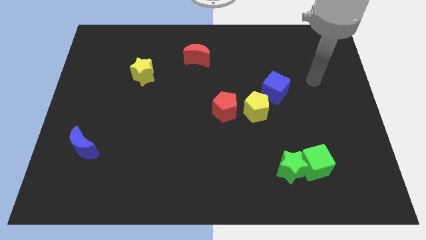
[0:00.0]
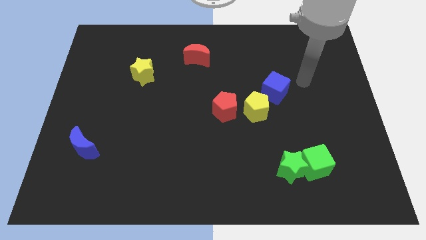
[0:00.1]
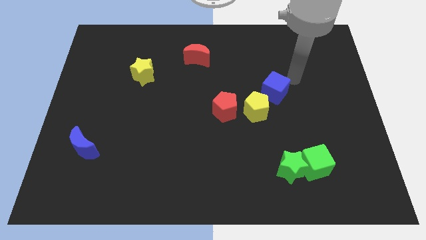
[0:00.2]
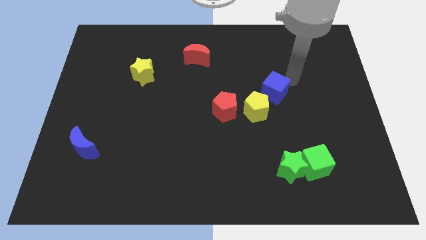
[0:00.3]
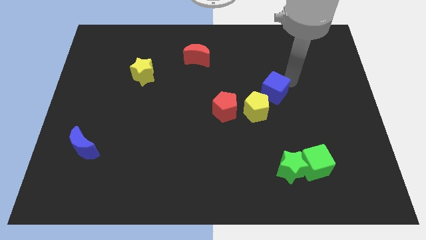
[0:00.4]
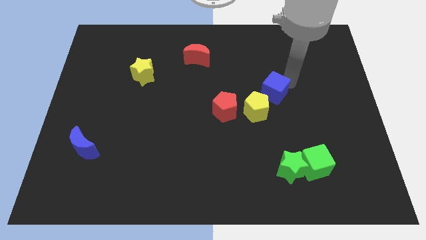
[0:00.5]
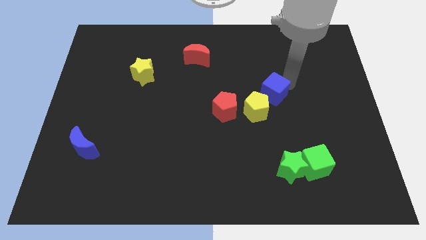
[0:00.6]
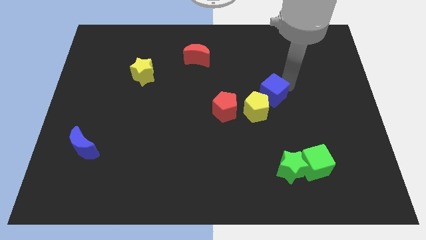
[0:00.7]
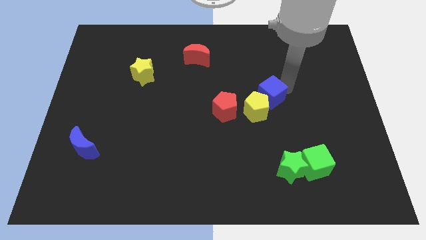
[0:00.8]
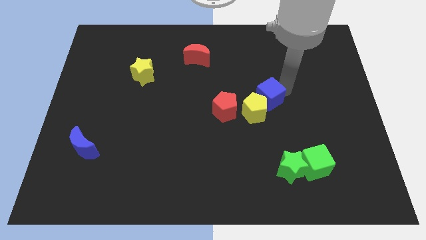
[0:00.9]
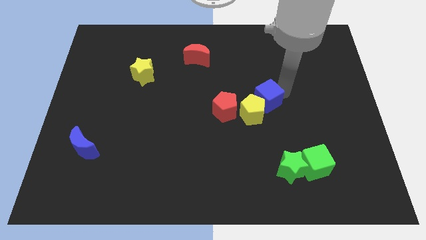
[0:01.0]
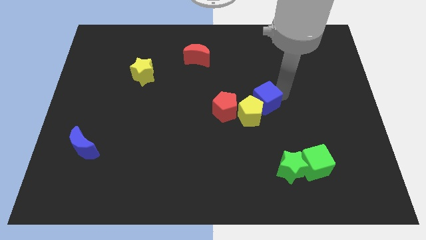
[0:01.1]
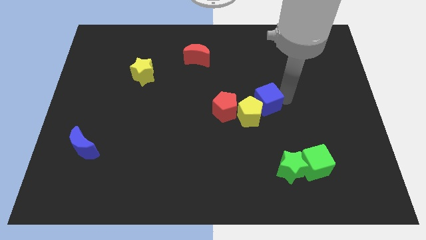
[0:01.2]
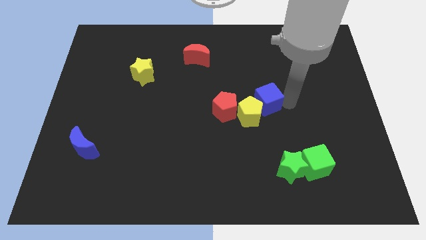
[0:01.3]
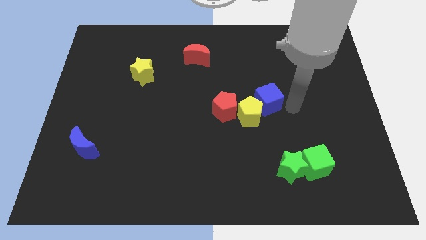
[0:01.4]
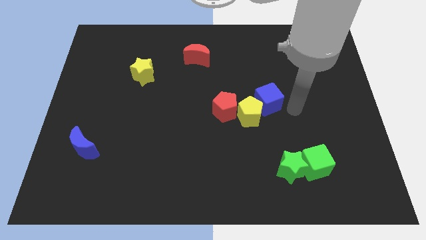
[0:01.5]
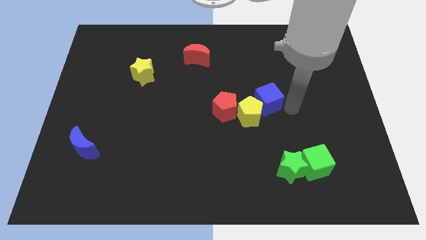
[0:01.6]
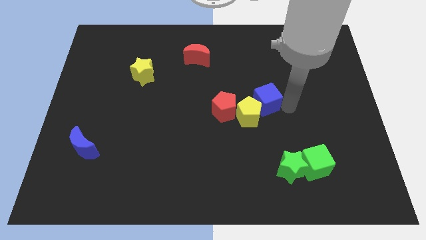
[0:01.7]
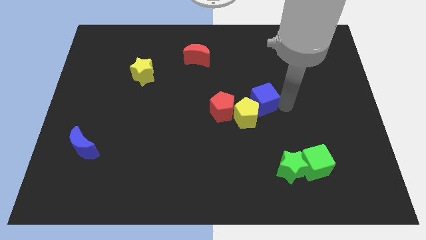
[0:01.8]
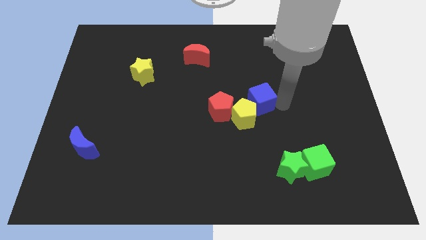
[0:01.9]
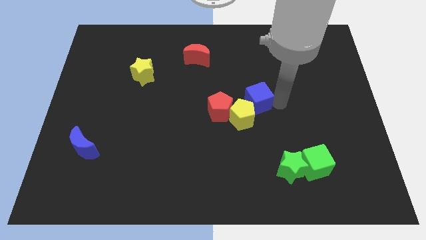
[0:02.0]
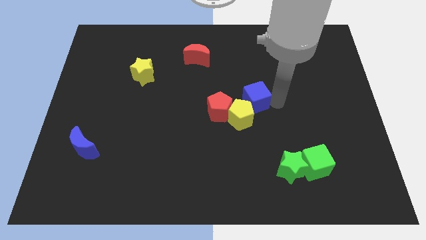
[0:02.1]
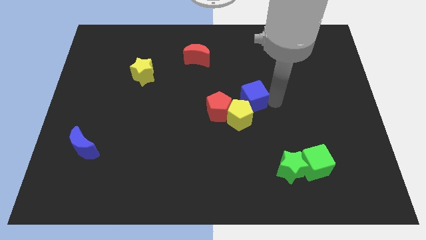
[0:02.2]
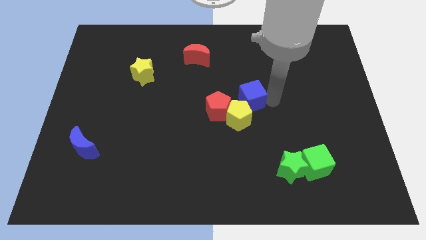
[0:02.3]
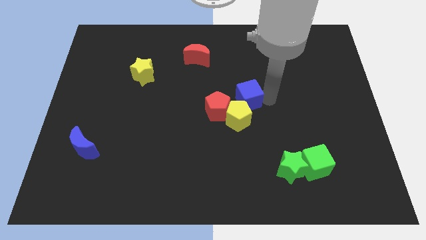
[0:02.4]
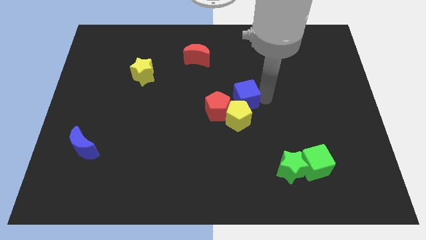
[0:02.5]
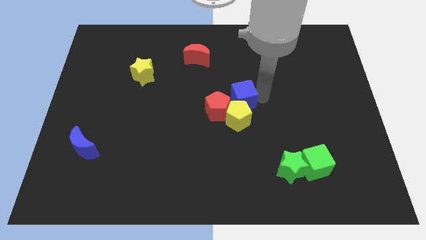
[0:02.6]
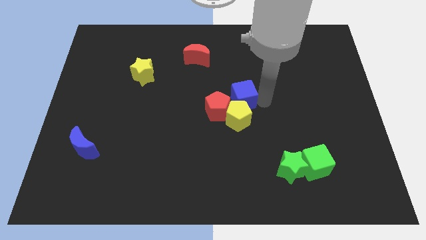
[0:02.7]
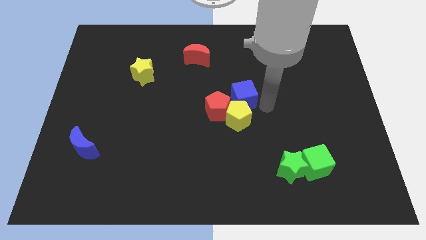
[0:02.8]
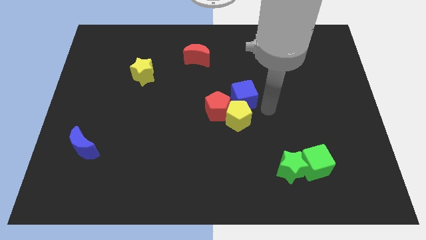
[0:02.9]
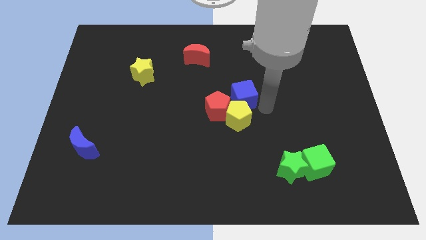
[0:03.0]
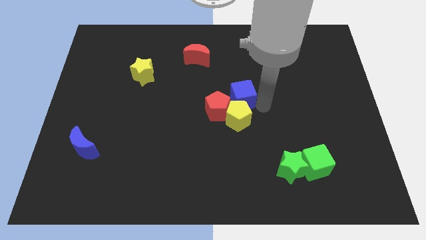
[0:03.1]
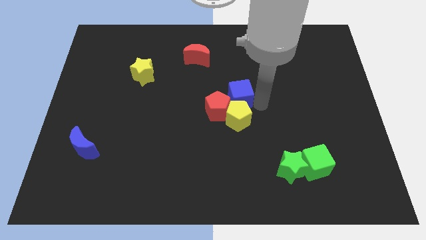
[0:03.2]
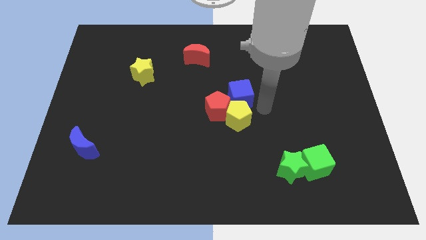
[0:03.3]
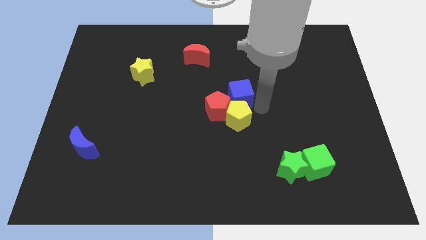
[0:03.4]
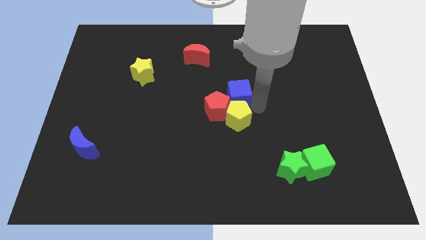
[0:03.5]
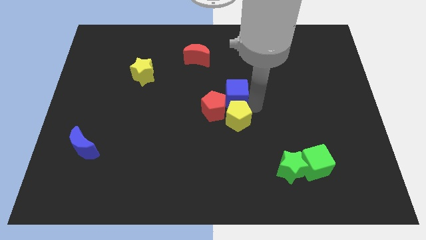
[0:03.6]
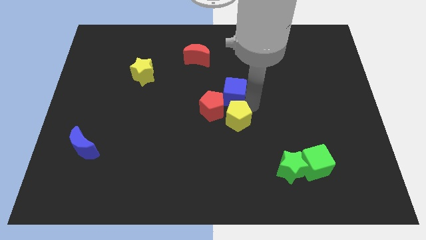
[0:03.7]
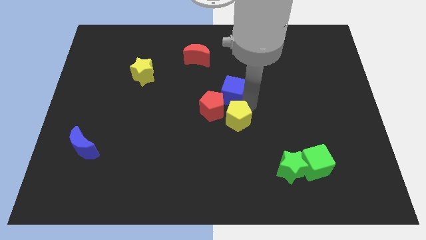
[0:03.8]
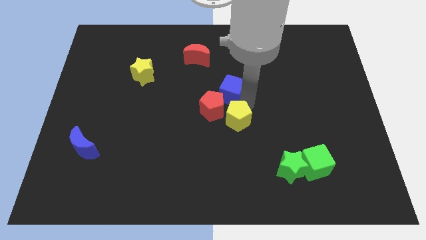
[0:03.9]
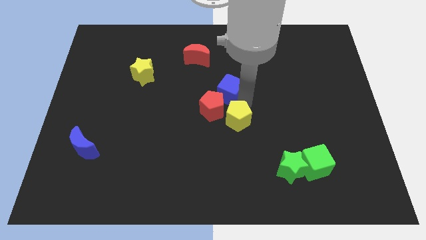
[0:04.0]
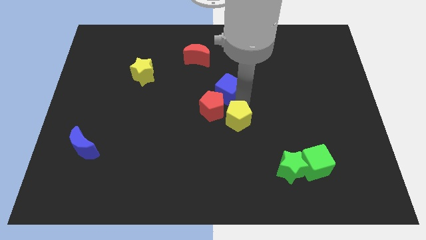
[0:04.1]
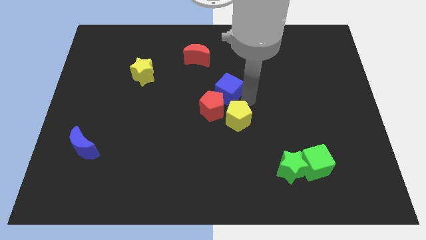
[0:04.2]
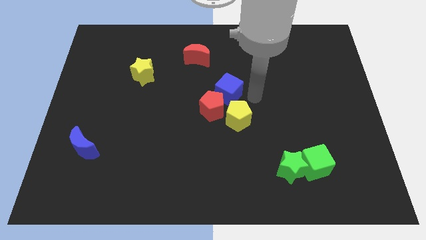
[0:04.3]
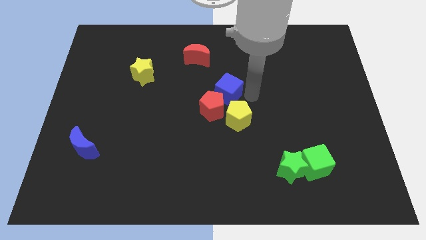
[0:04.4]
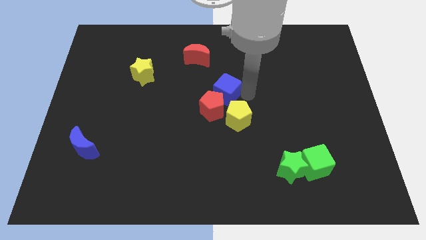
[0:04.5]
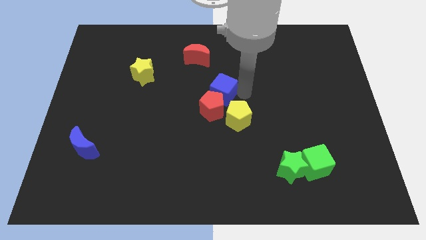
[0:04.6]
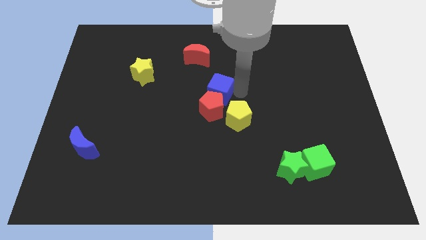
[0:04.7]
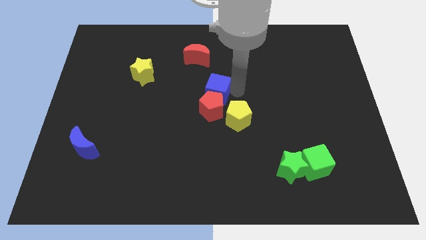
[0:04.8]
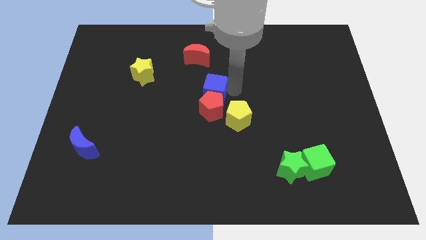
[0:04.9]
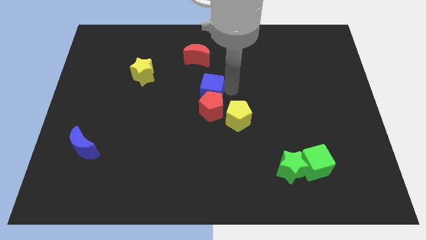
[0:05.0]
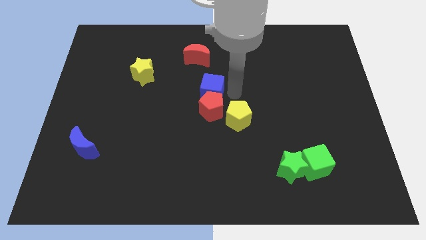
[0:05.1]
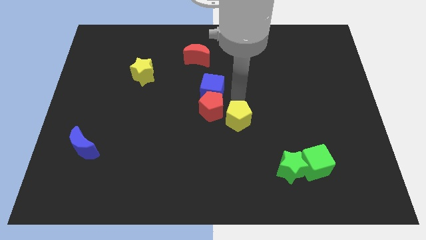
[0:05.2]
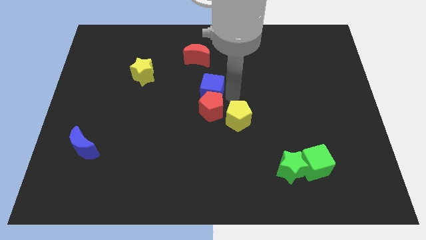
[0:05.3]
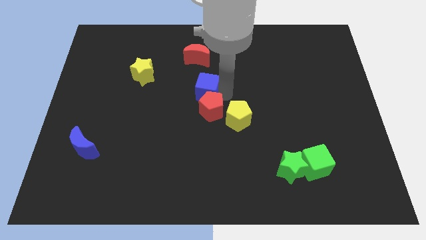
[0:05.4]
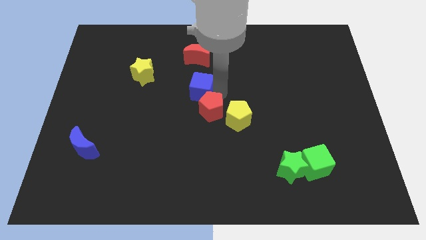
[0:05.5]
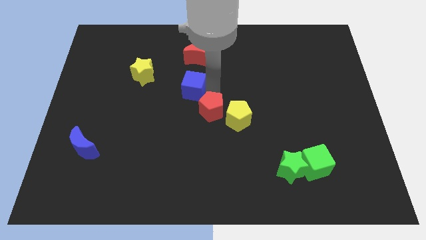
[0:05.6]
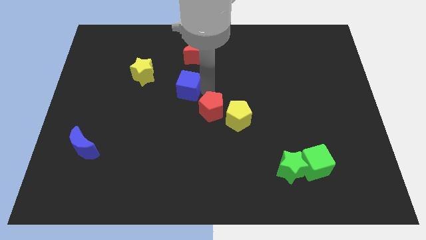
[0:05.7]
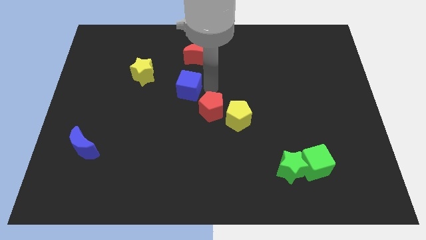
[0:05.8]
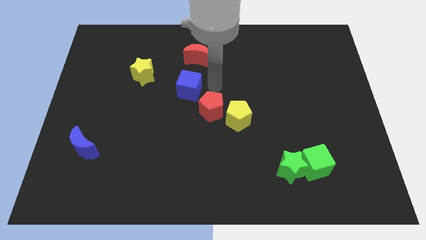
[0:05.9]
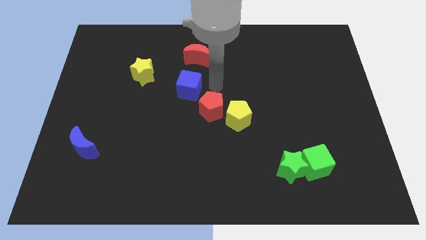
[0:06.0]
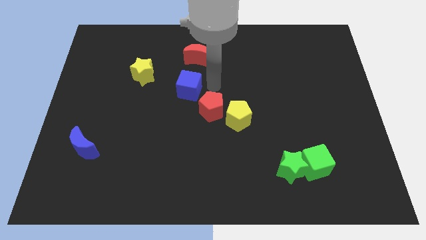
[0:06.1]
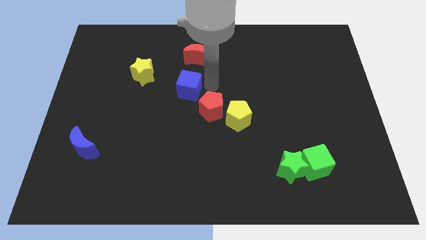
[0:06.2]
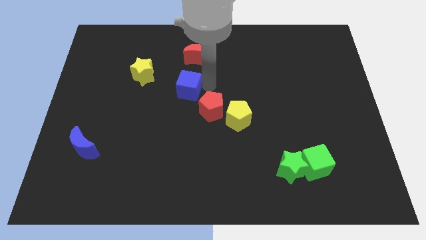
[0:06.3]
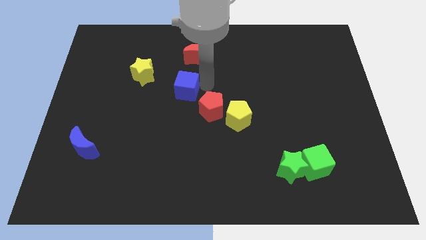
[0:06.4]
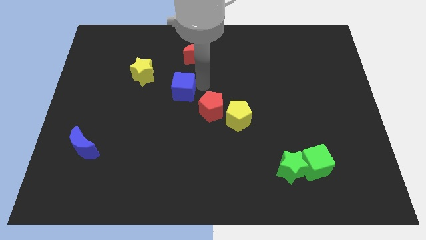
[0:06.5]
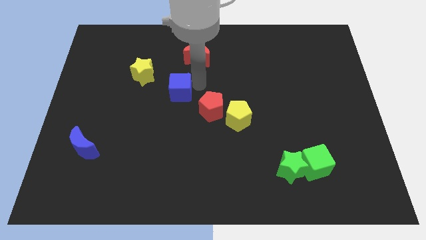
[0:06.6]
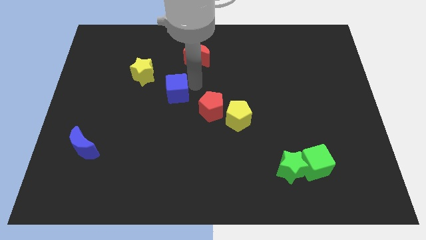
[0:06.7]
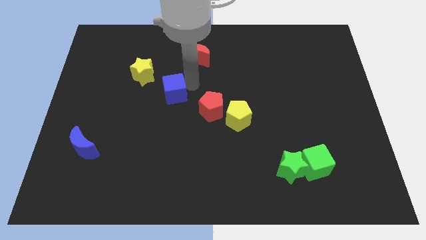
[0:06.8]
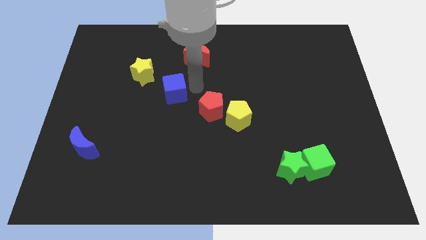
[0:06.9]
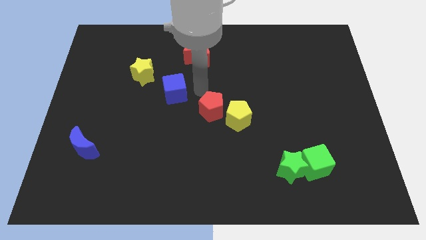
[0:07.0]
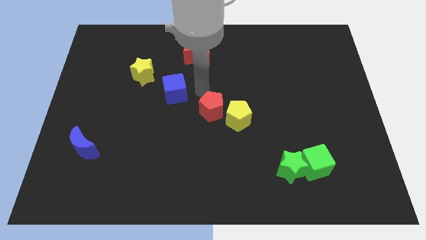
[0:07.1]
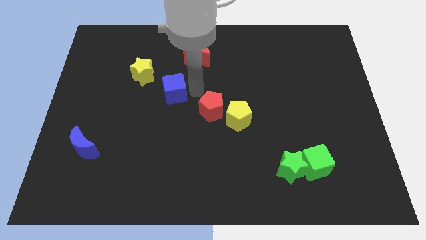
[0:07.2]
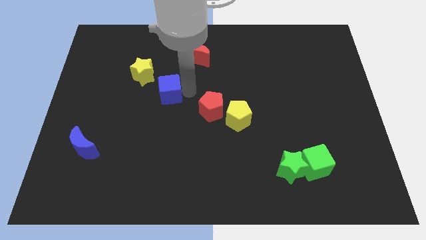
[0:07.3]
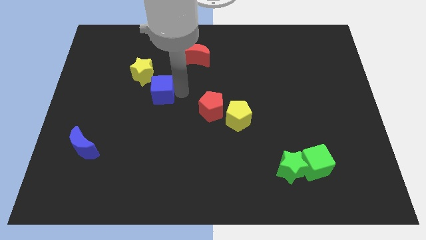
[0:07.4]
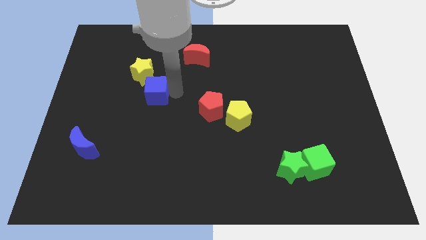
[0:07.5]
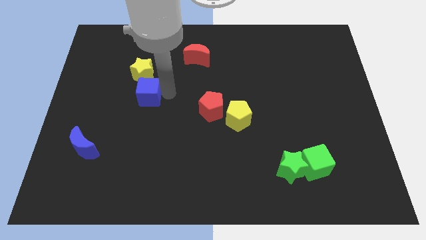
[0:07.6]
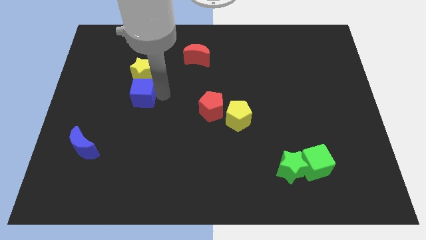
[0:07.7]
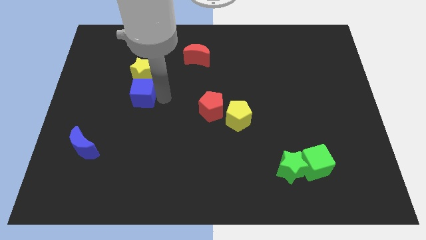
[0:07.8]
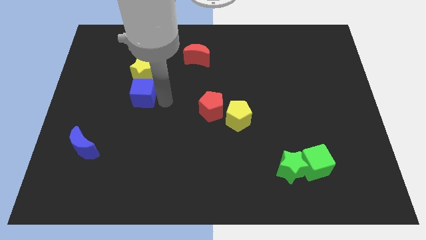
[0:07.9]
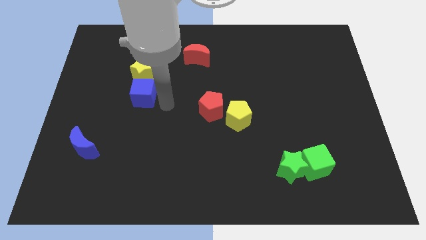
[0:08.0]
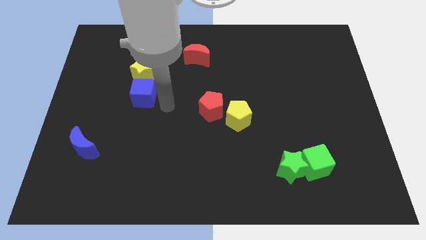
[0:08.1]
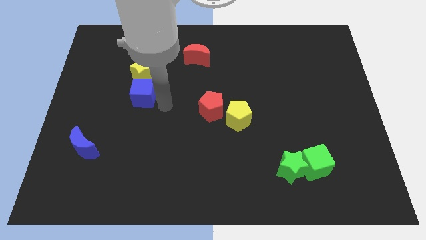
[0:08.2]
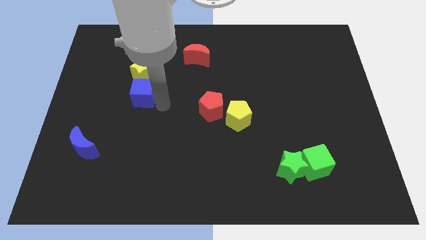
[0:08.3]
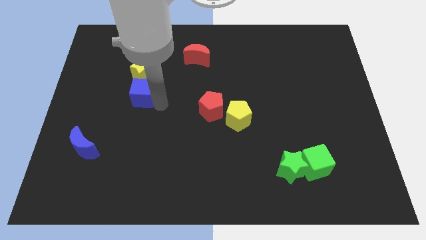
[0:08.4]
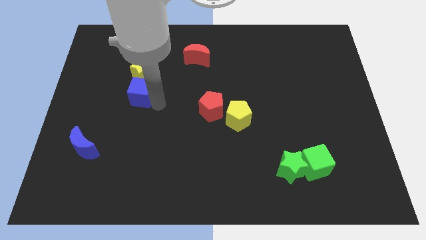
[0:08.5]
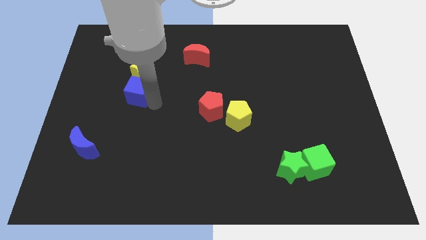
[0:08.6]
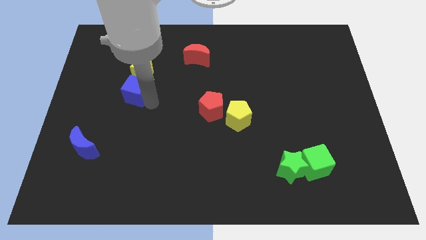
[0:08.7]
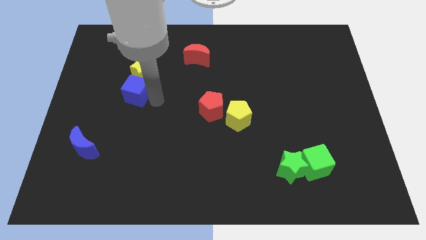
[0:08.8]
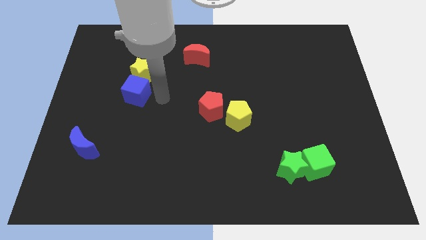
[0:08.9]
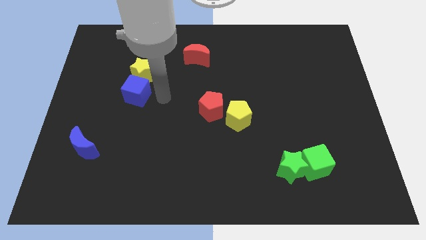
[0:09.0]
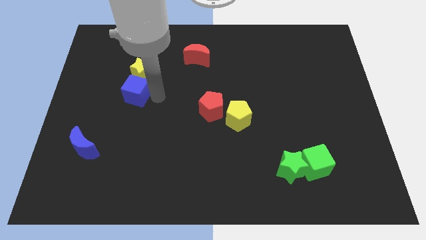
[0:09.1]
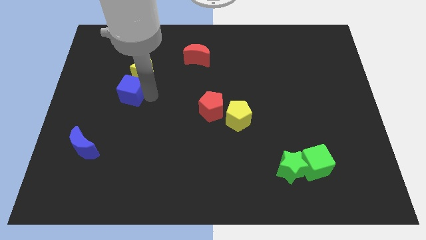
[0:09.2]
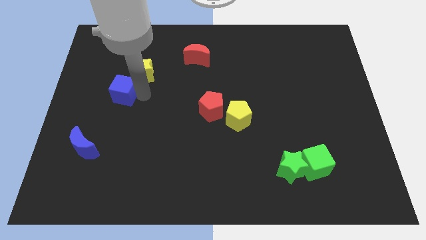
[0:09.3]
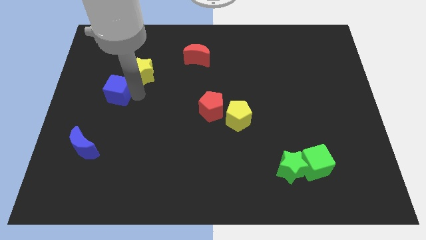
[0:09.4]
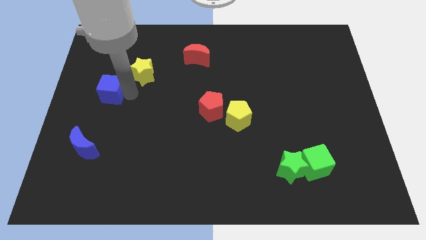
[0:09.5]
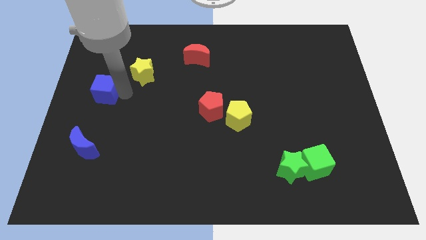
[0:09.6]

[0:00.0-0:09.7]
slide the blue cube to the center left
